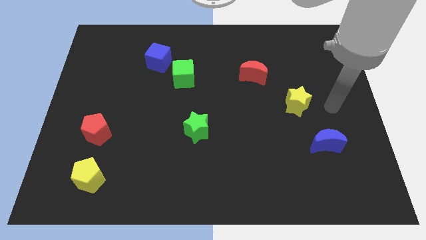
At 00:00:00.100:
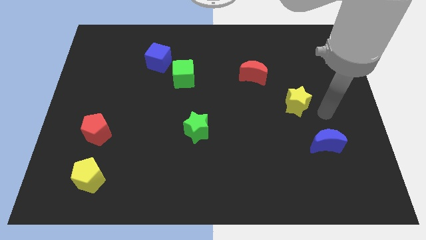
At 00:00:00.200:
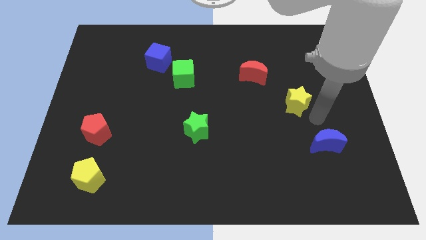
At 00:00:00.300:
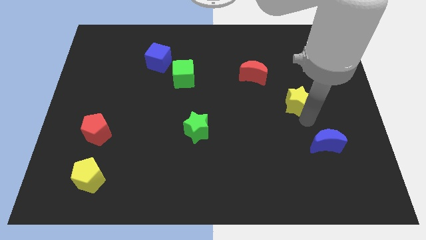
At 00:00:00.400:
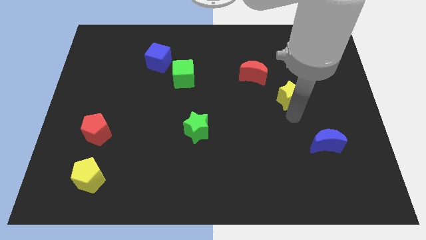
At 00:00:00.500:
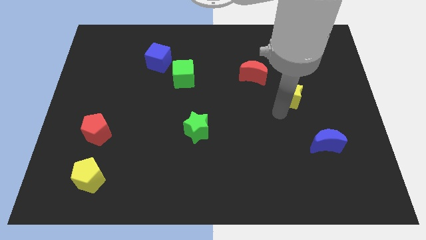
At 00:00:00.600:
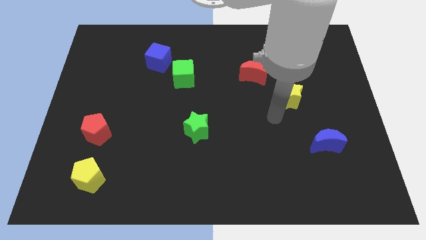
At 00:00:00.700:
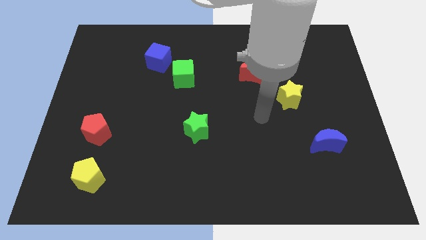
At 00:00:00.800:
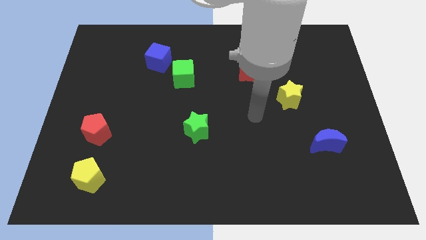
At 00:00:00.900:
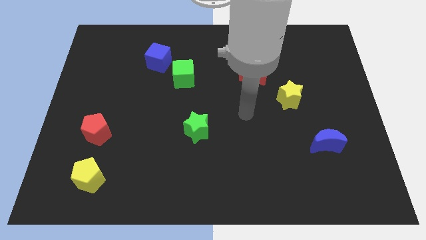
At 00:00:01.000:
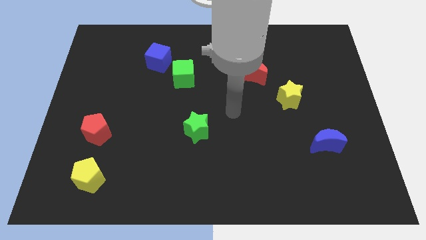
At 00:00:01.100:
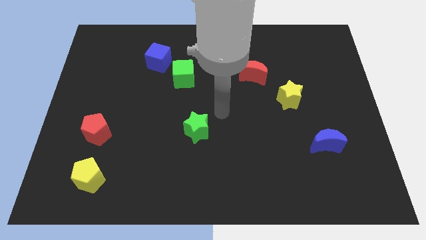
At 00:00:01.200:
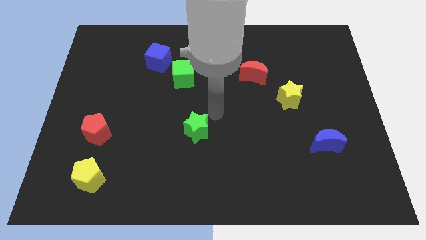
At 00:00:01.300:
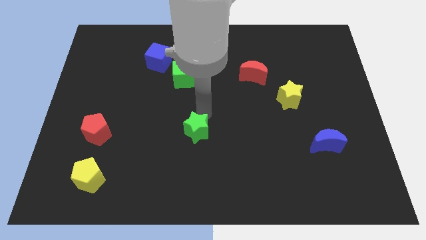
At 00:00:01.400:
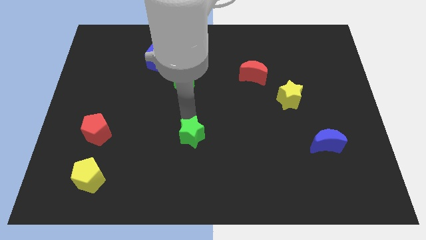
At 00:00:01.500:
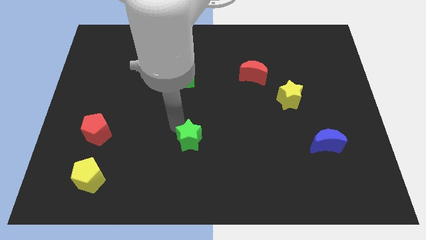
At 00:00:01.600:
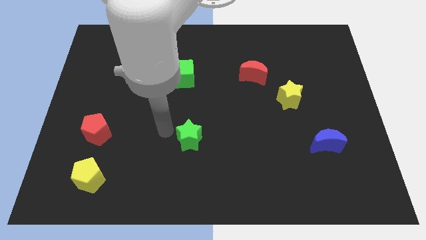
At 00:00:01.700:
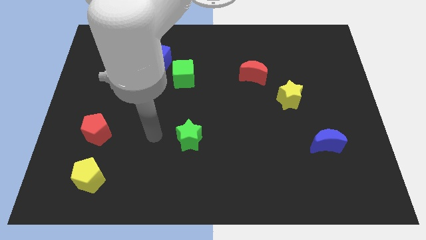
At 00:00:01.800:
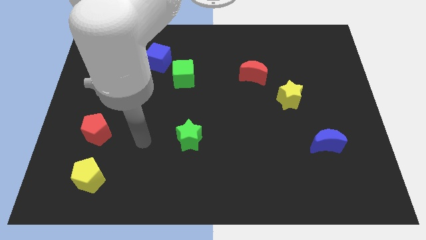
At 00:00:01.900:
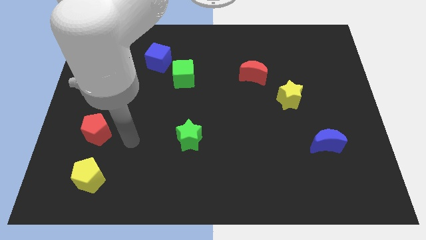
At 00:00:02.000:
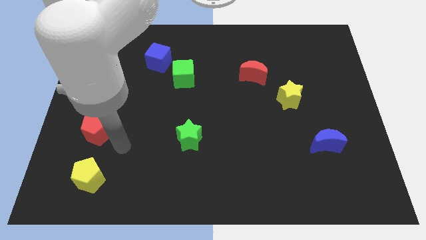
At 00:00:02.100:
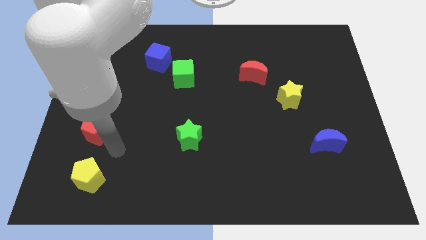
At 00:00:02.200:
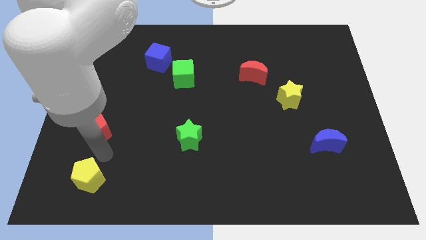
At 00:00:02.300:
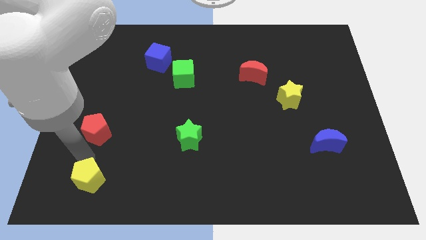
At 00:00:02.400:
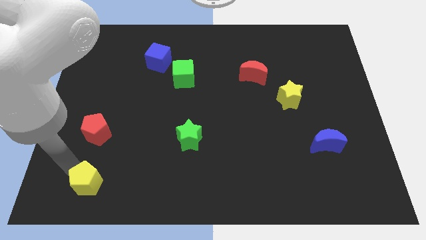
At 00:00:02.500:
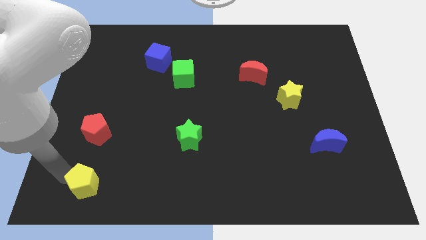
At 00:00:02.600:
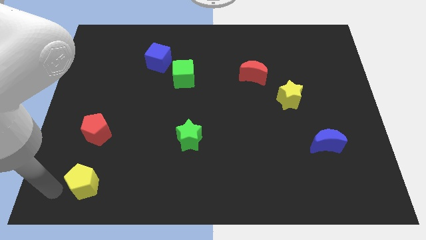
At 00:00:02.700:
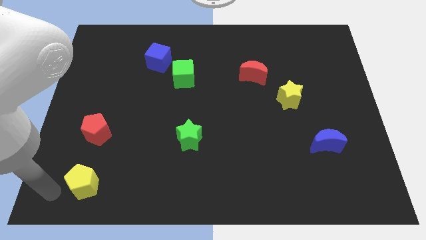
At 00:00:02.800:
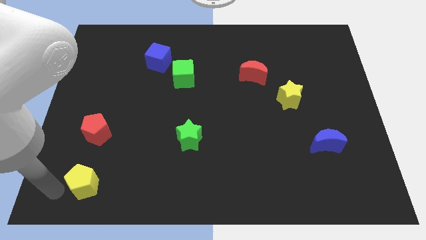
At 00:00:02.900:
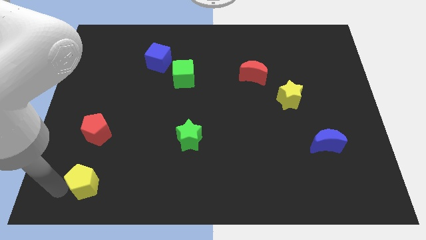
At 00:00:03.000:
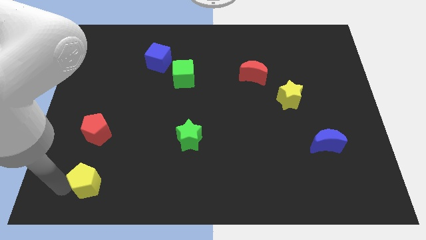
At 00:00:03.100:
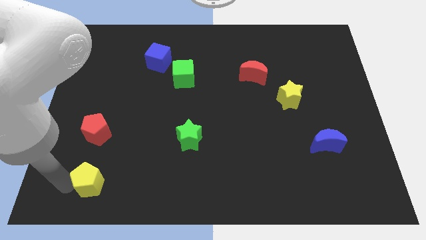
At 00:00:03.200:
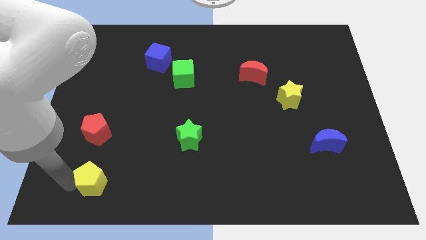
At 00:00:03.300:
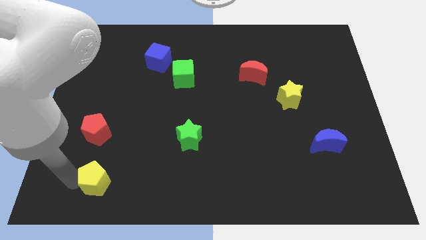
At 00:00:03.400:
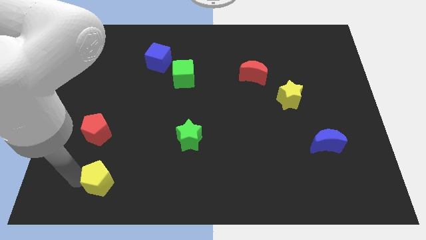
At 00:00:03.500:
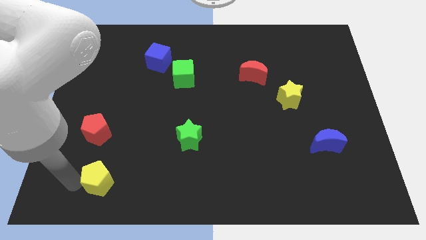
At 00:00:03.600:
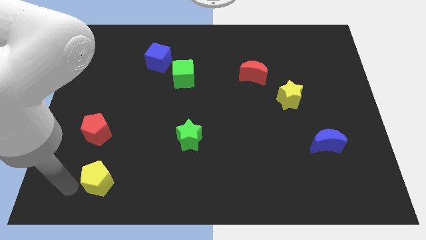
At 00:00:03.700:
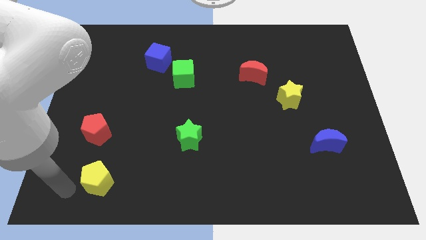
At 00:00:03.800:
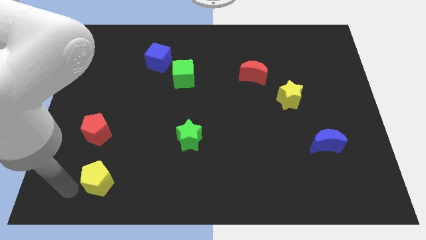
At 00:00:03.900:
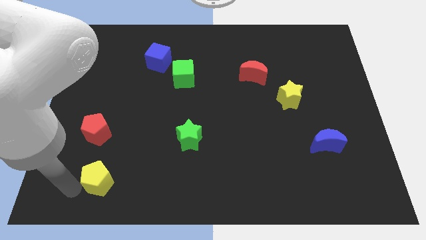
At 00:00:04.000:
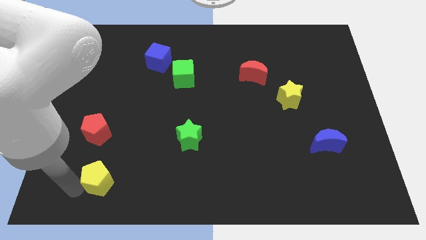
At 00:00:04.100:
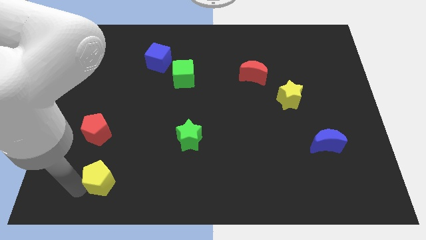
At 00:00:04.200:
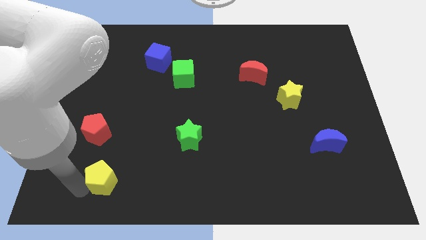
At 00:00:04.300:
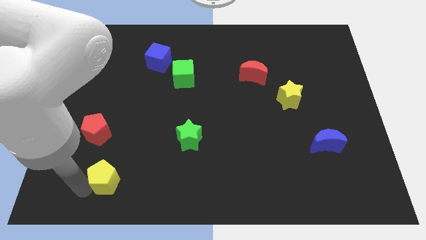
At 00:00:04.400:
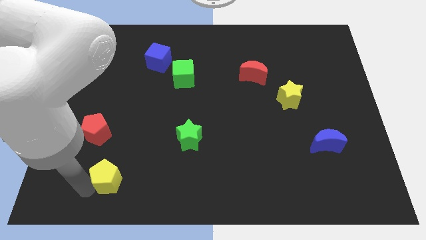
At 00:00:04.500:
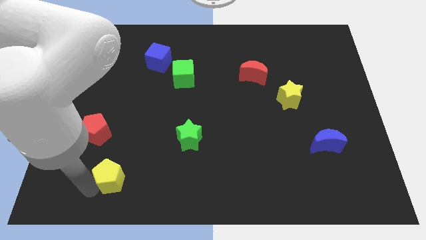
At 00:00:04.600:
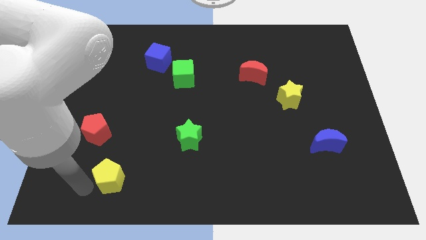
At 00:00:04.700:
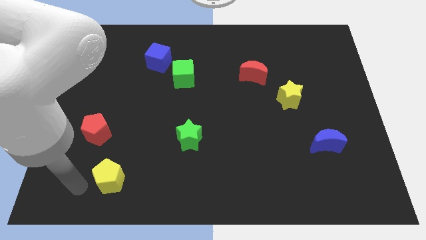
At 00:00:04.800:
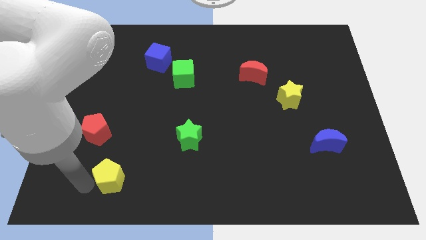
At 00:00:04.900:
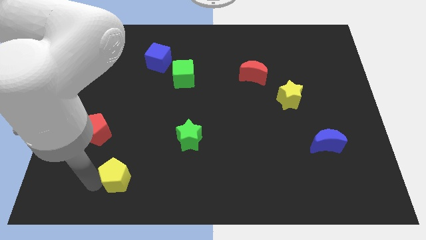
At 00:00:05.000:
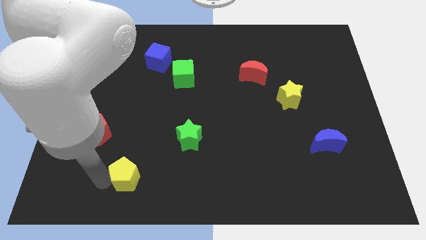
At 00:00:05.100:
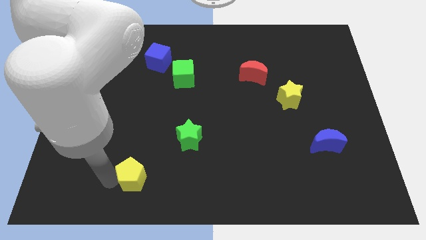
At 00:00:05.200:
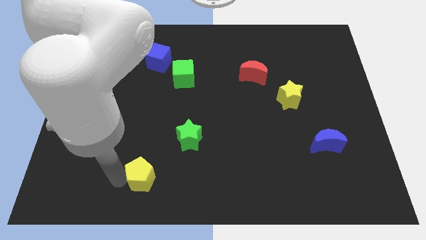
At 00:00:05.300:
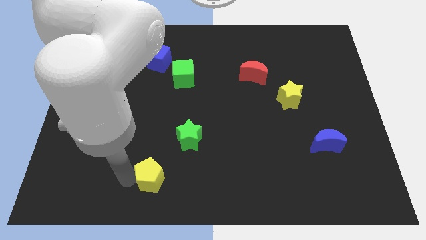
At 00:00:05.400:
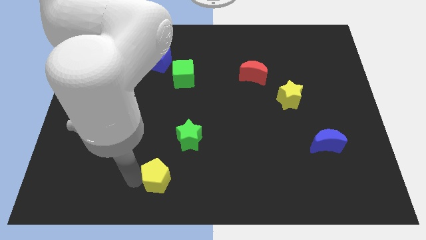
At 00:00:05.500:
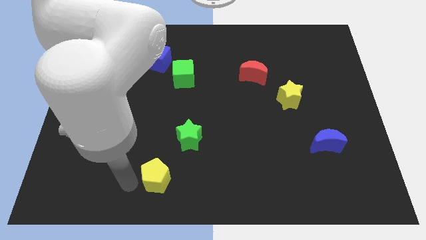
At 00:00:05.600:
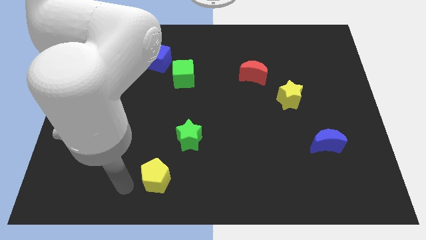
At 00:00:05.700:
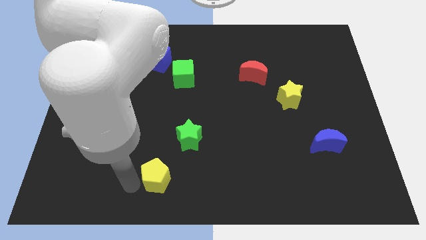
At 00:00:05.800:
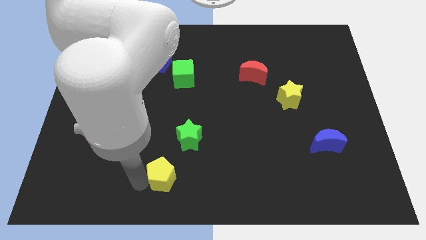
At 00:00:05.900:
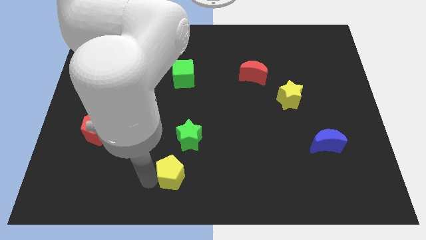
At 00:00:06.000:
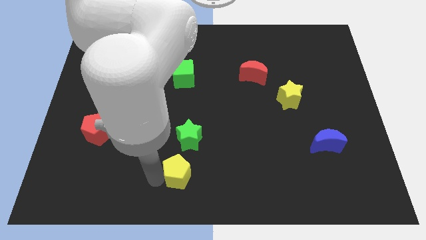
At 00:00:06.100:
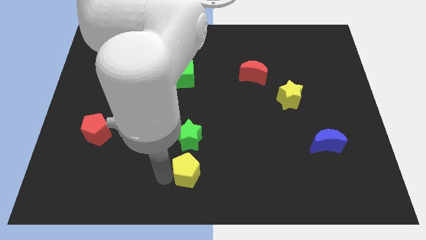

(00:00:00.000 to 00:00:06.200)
move the yellow pentagon right

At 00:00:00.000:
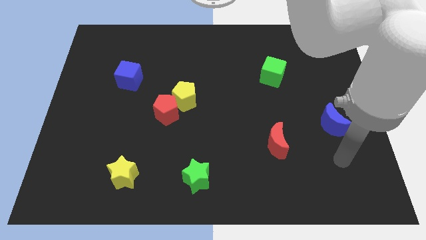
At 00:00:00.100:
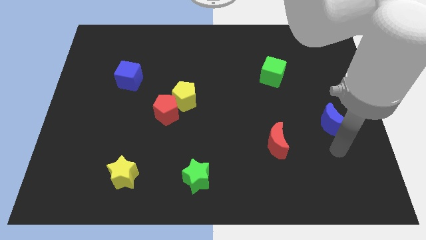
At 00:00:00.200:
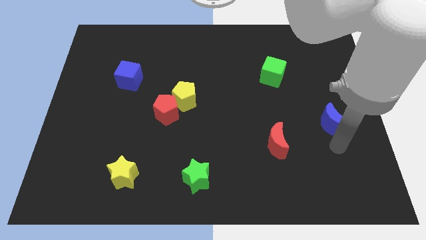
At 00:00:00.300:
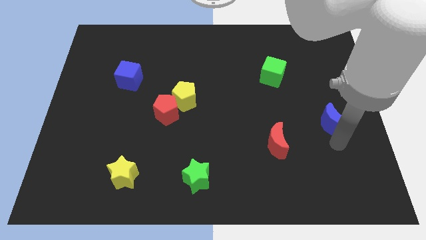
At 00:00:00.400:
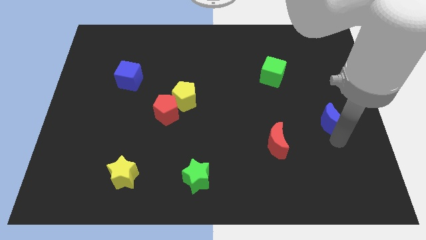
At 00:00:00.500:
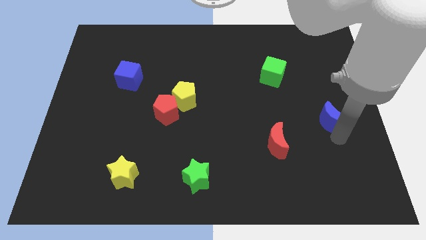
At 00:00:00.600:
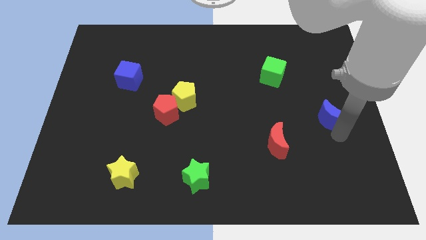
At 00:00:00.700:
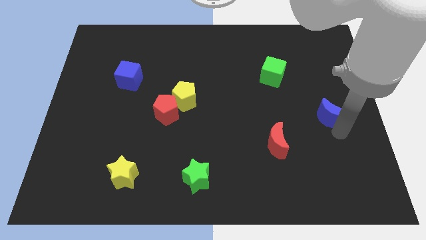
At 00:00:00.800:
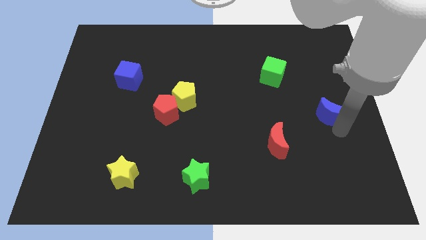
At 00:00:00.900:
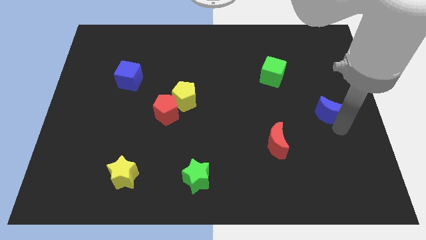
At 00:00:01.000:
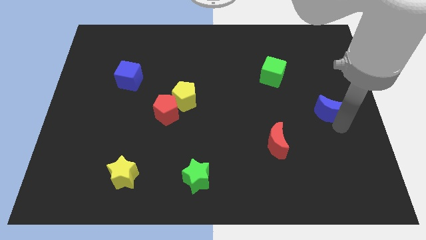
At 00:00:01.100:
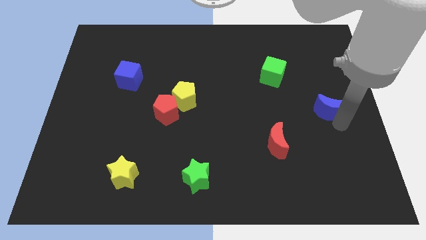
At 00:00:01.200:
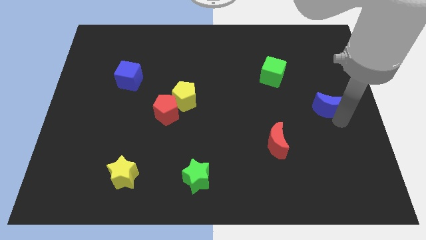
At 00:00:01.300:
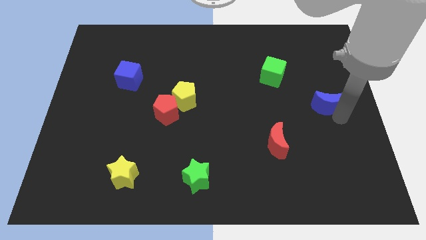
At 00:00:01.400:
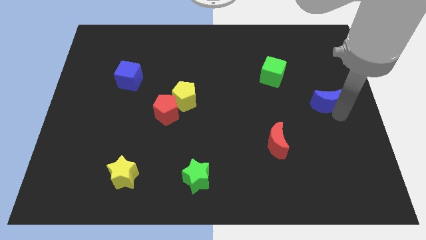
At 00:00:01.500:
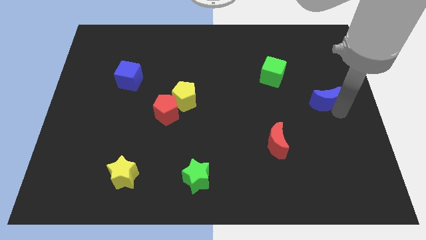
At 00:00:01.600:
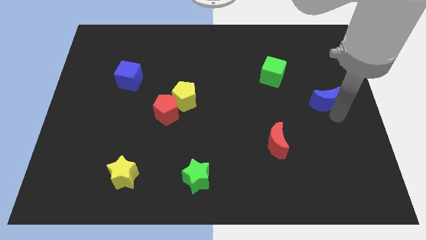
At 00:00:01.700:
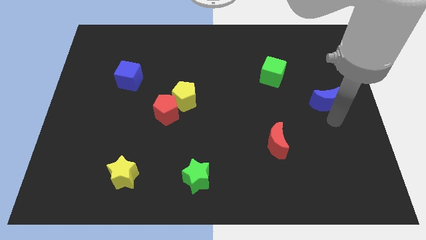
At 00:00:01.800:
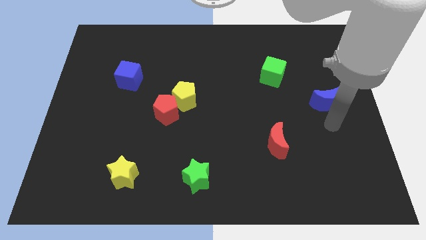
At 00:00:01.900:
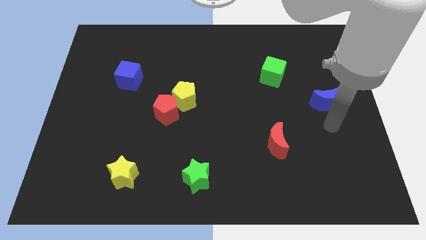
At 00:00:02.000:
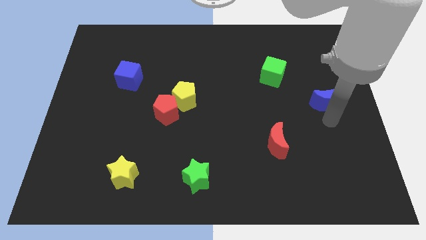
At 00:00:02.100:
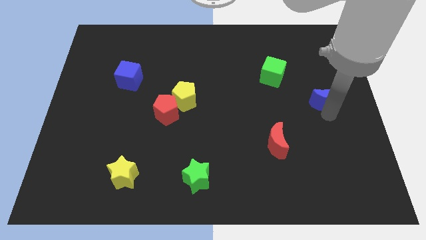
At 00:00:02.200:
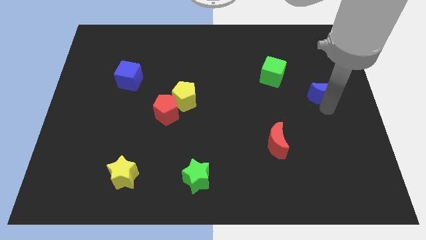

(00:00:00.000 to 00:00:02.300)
move the blue moon a bit up
